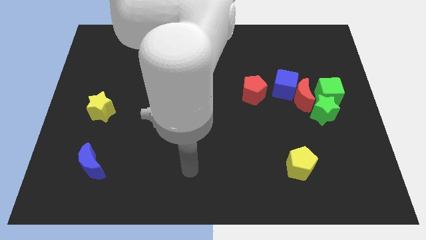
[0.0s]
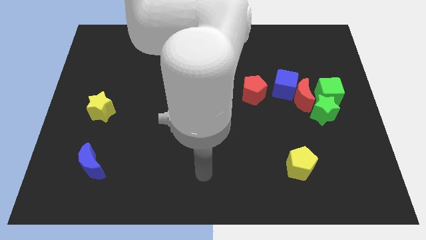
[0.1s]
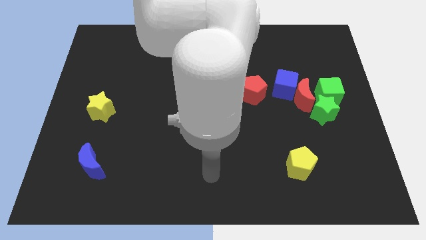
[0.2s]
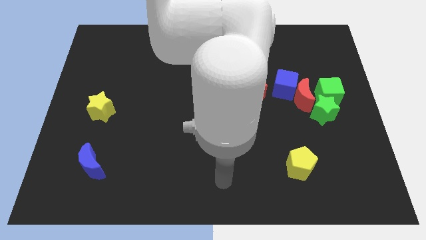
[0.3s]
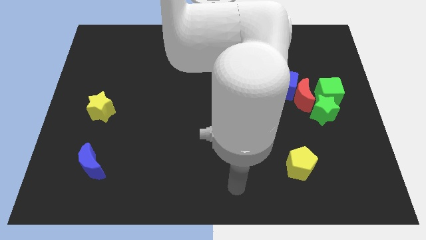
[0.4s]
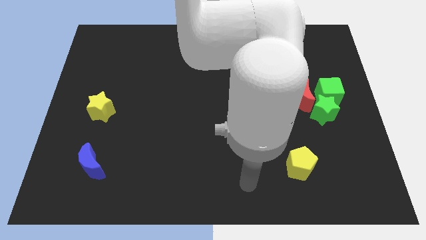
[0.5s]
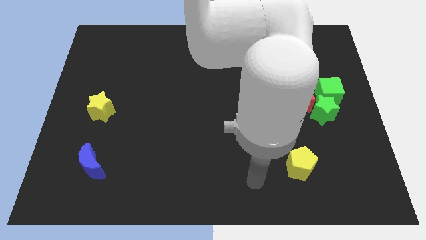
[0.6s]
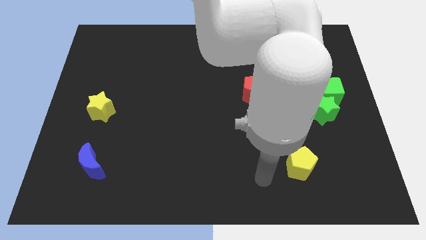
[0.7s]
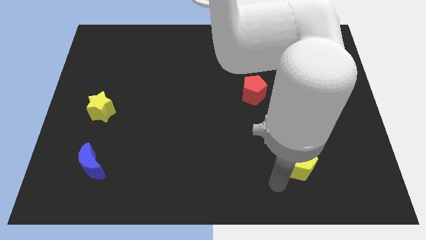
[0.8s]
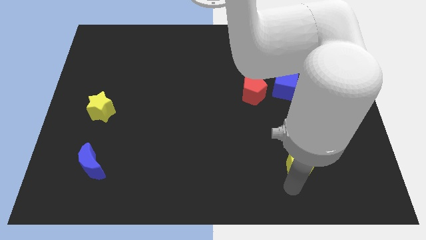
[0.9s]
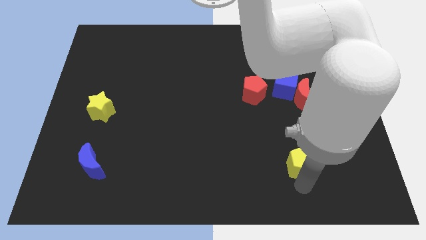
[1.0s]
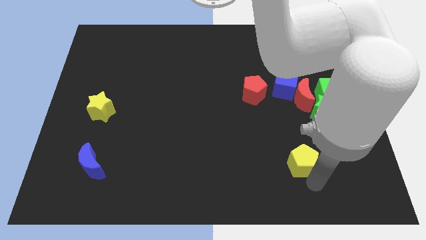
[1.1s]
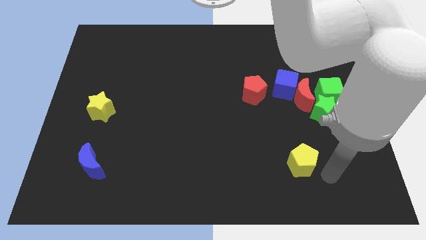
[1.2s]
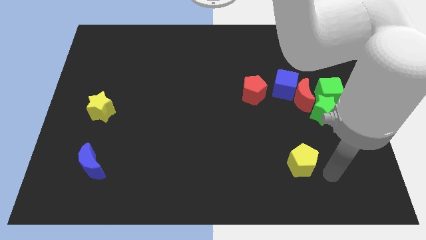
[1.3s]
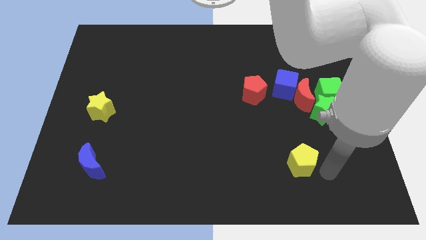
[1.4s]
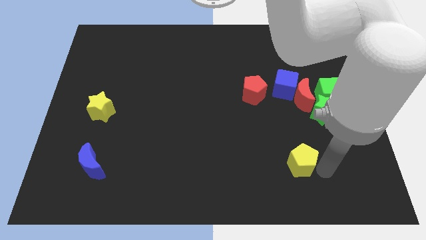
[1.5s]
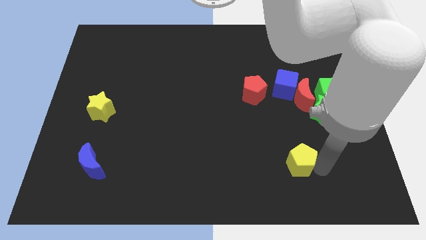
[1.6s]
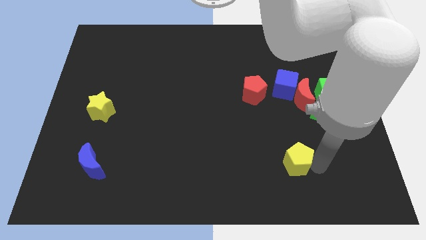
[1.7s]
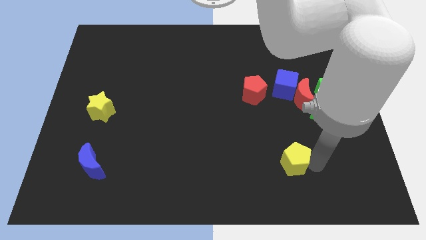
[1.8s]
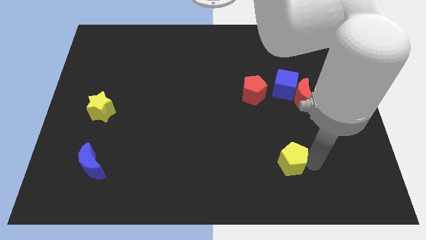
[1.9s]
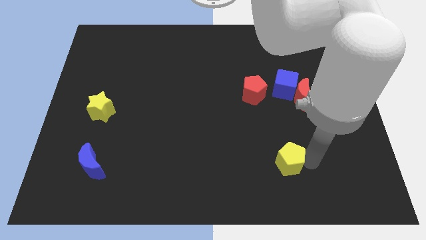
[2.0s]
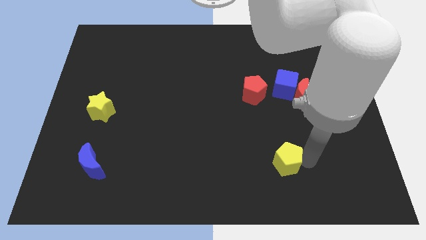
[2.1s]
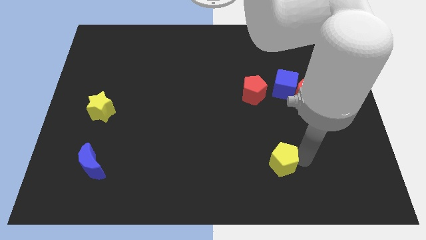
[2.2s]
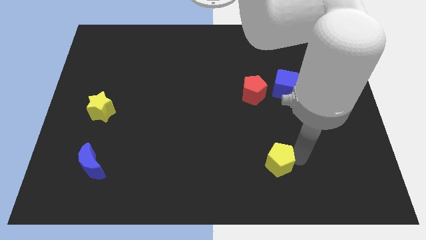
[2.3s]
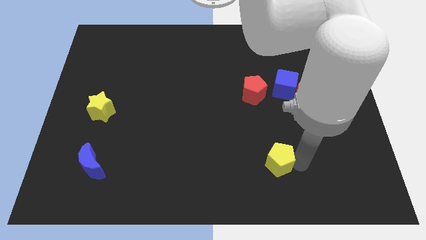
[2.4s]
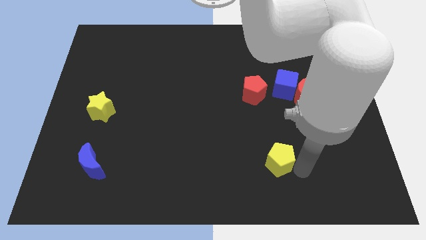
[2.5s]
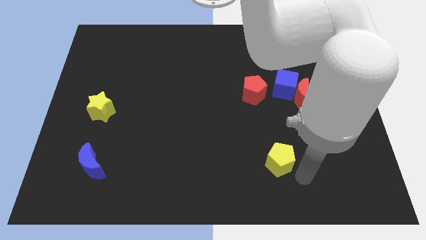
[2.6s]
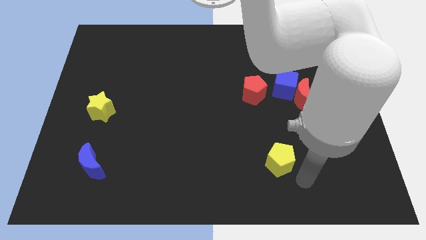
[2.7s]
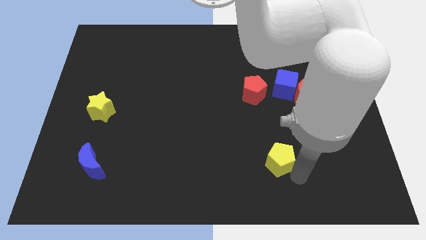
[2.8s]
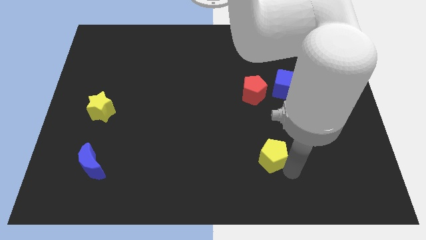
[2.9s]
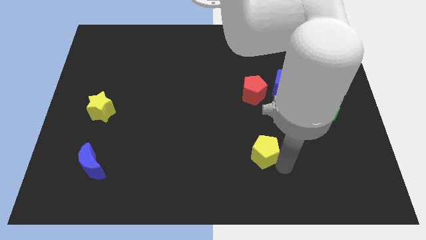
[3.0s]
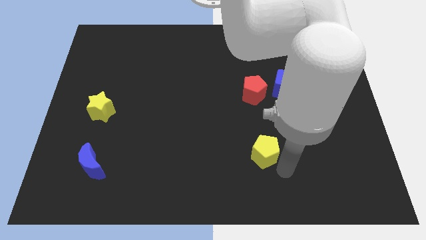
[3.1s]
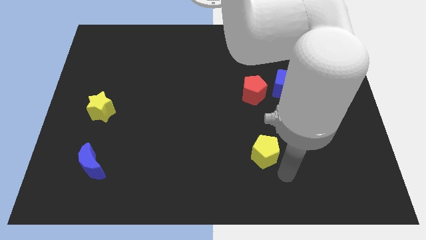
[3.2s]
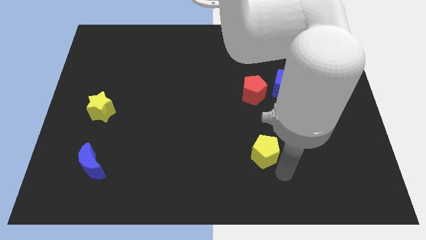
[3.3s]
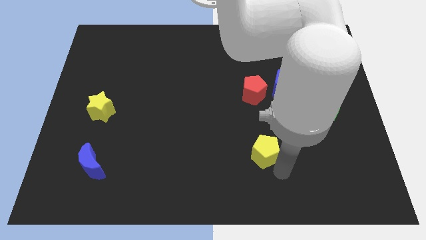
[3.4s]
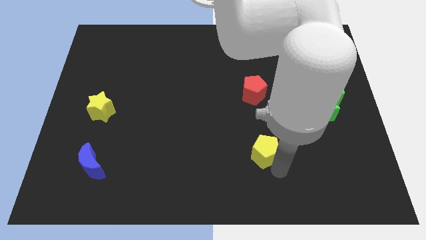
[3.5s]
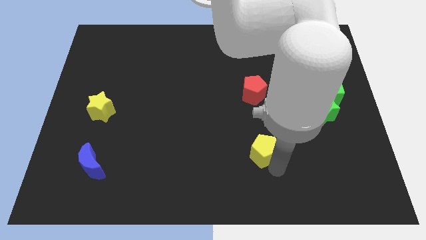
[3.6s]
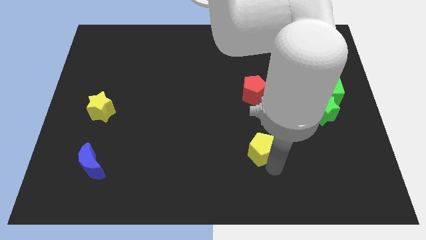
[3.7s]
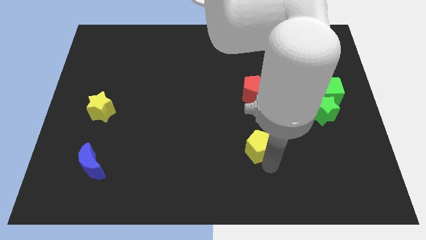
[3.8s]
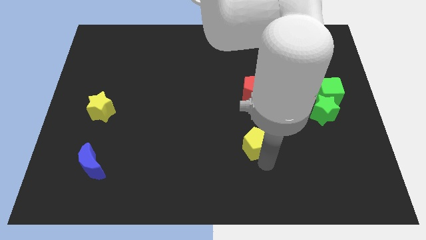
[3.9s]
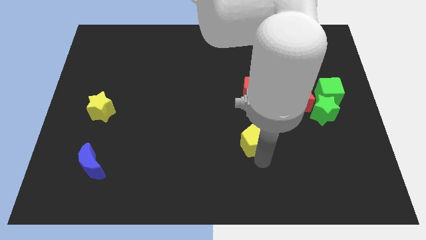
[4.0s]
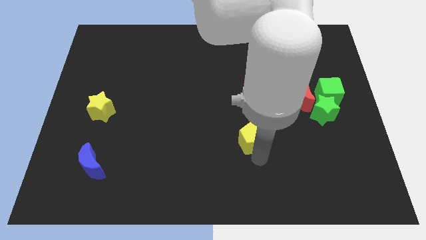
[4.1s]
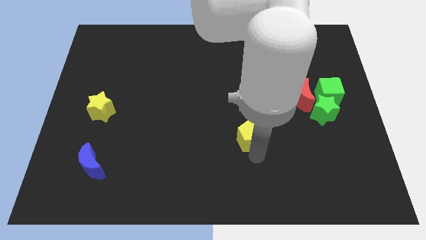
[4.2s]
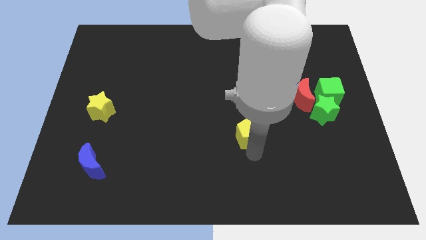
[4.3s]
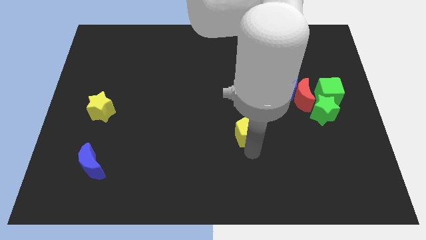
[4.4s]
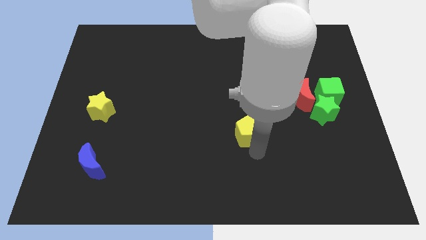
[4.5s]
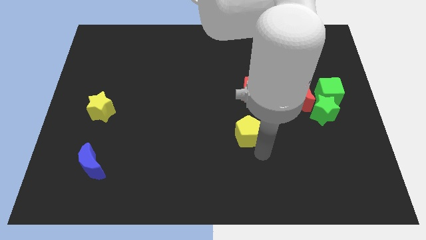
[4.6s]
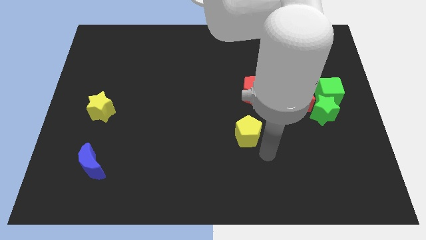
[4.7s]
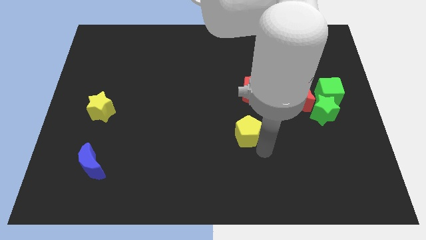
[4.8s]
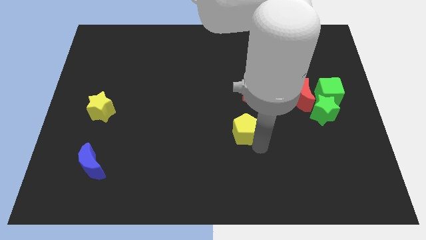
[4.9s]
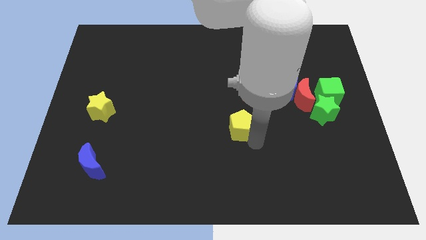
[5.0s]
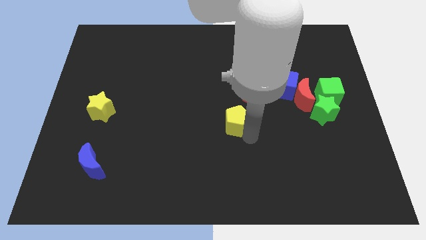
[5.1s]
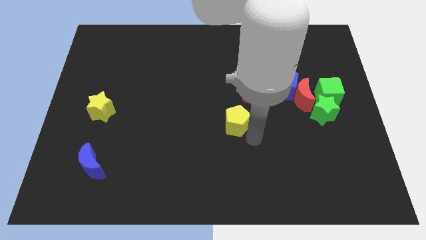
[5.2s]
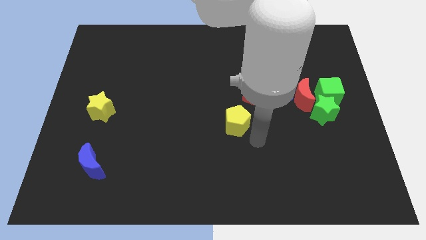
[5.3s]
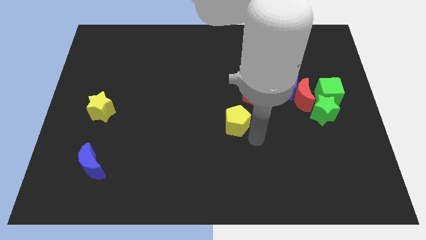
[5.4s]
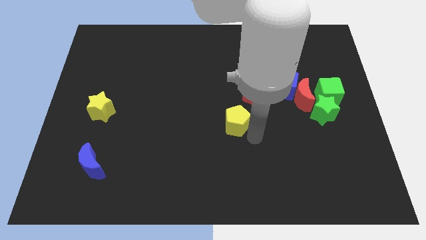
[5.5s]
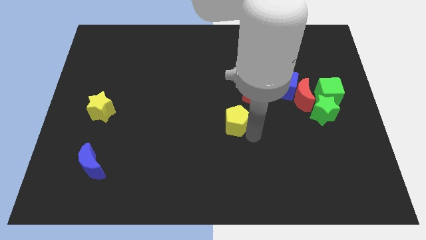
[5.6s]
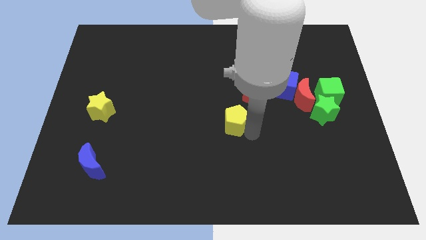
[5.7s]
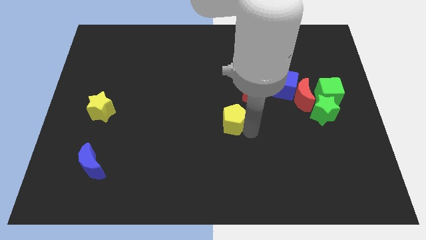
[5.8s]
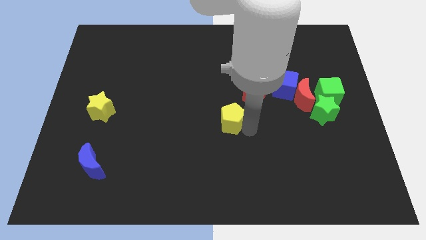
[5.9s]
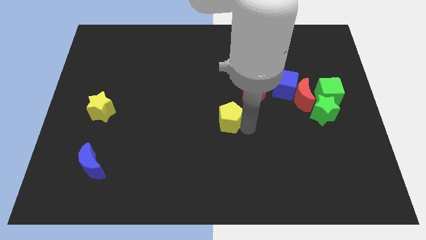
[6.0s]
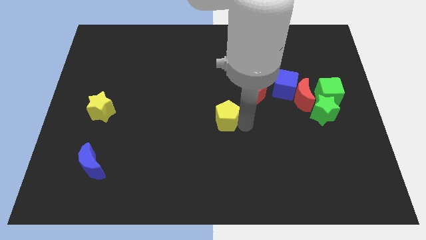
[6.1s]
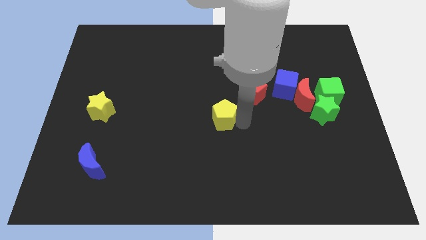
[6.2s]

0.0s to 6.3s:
slide the yellow pentagon up and left

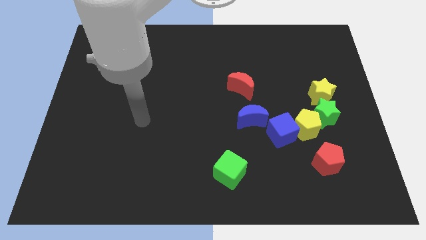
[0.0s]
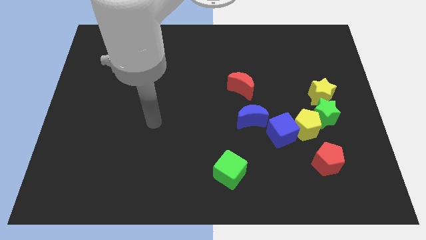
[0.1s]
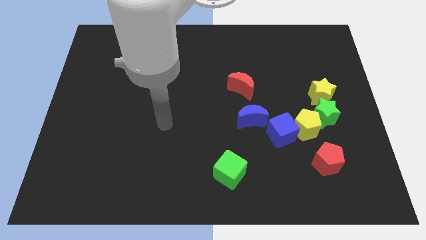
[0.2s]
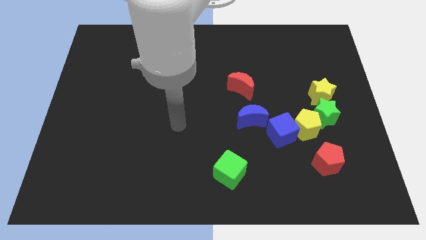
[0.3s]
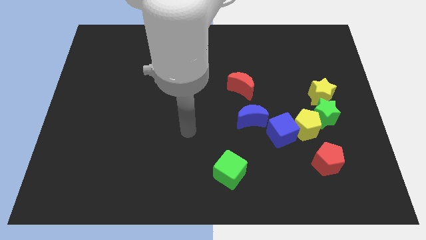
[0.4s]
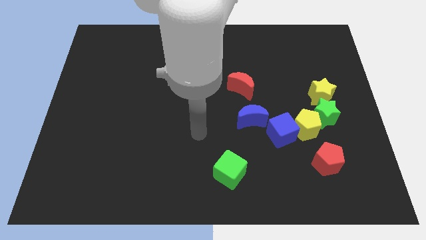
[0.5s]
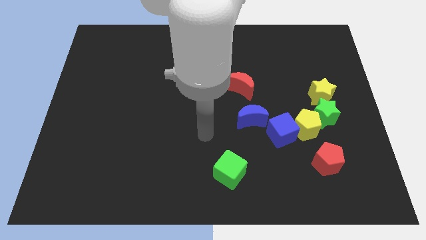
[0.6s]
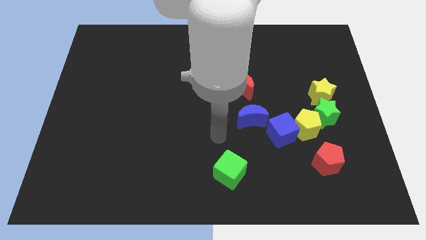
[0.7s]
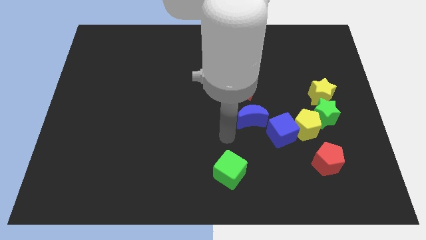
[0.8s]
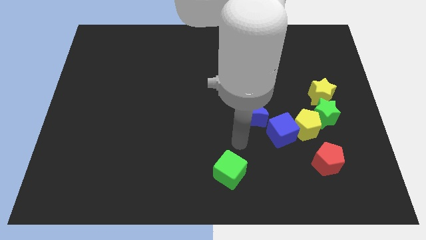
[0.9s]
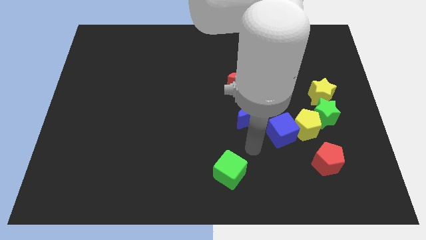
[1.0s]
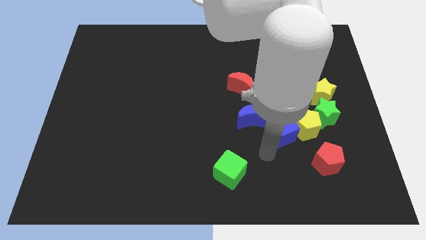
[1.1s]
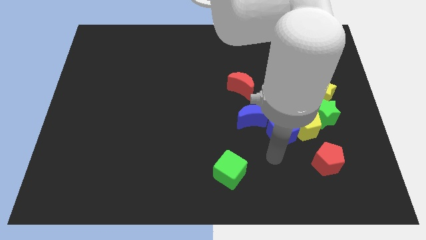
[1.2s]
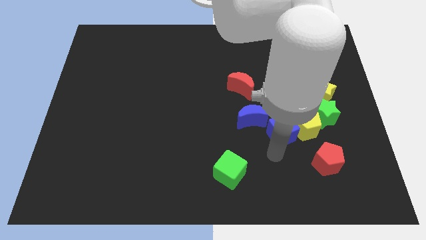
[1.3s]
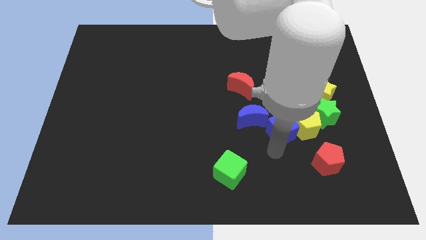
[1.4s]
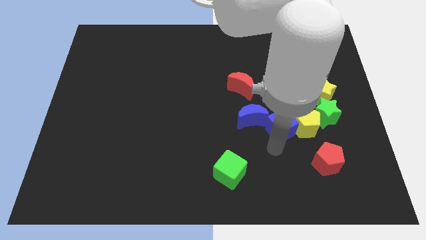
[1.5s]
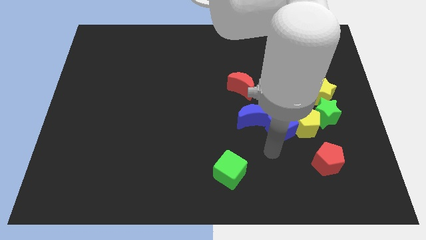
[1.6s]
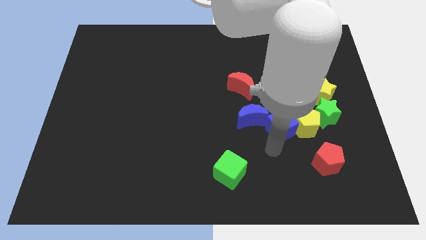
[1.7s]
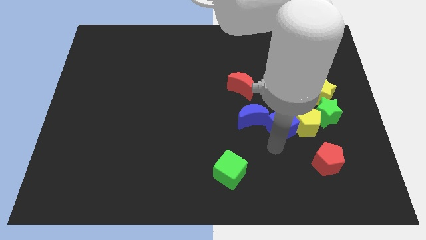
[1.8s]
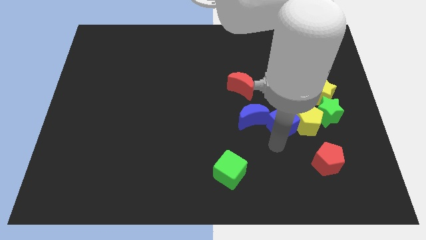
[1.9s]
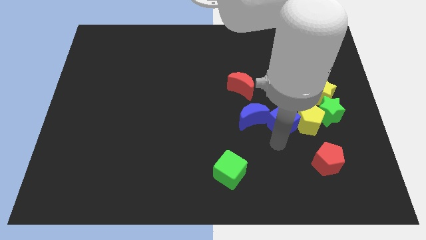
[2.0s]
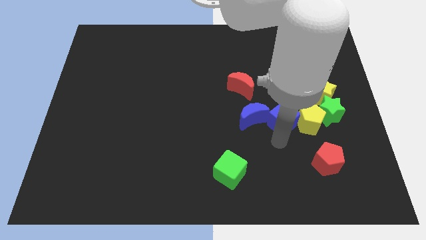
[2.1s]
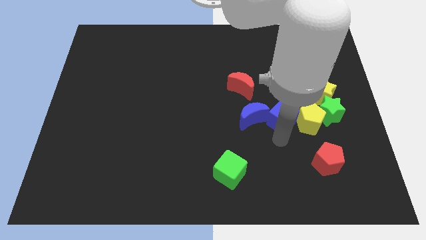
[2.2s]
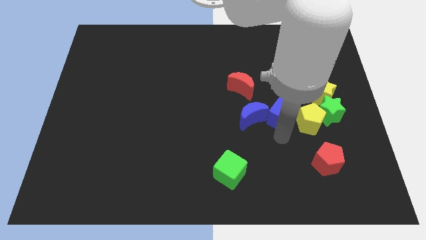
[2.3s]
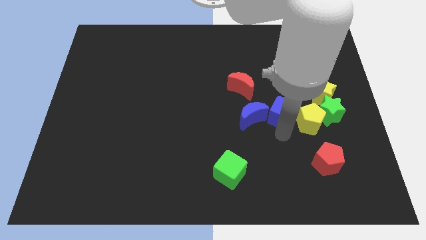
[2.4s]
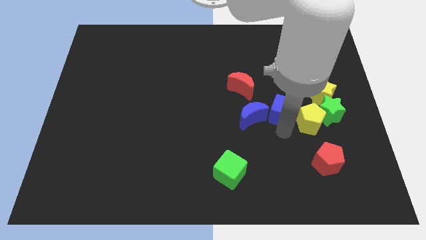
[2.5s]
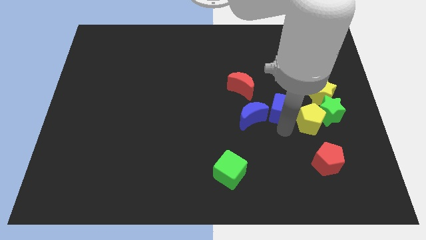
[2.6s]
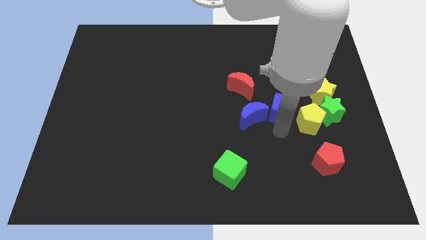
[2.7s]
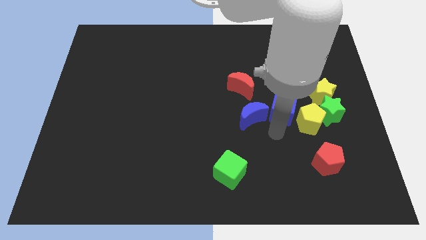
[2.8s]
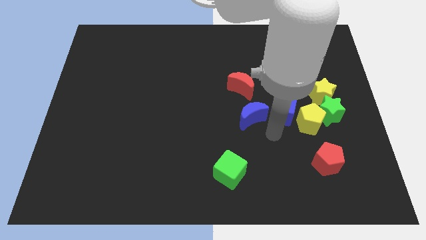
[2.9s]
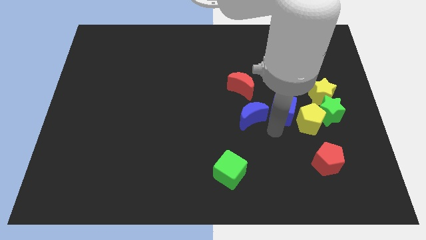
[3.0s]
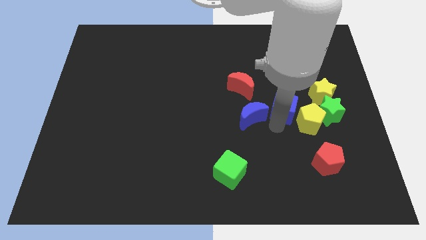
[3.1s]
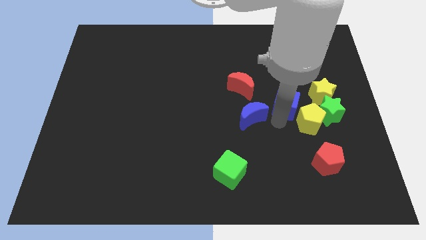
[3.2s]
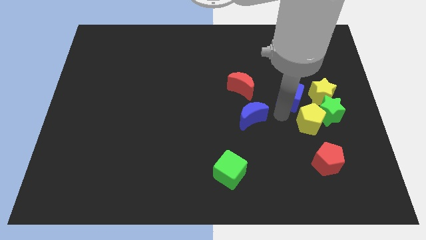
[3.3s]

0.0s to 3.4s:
slightly move the blue cube upwards and then to the right
